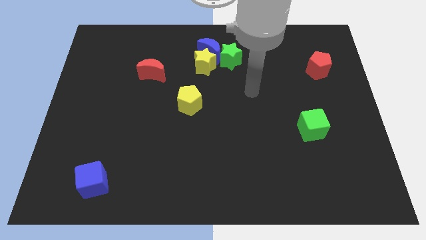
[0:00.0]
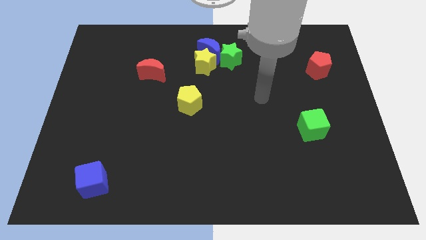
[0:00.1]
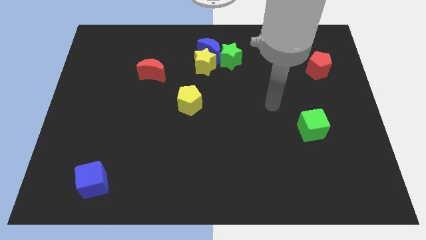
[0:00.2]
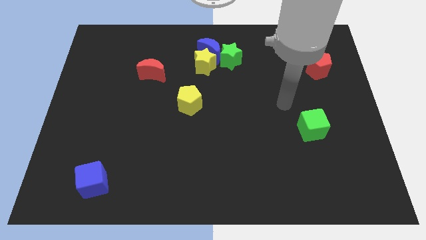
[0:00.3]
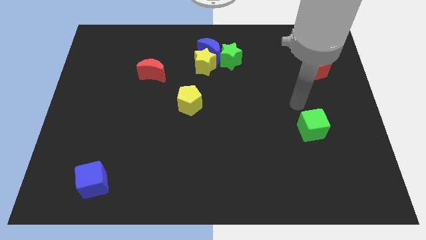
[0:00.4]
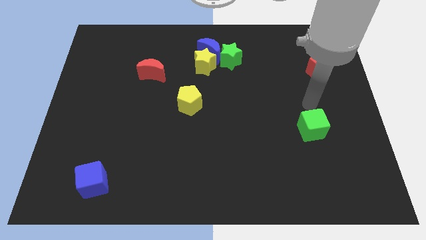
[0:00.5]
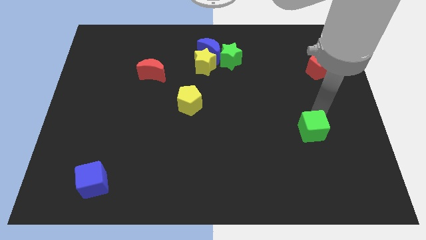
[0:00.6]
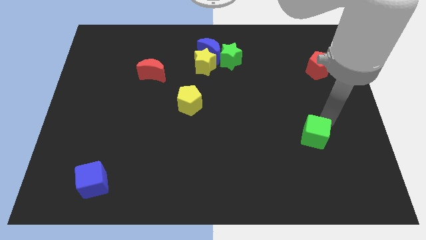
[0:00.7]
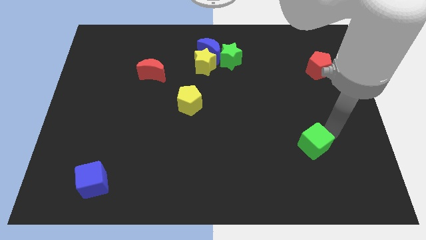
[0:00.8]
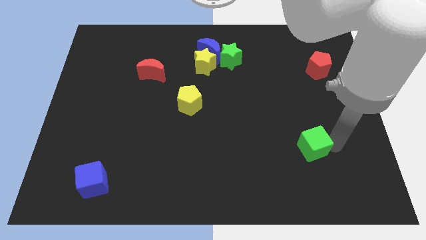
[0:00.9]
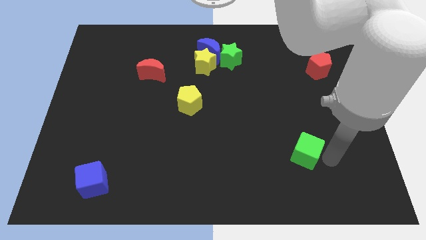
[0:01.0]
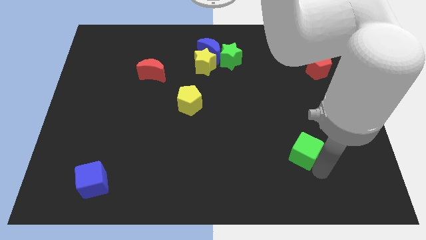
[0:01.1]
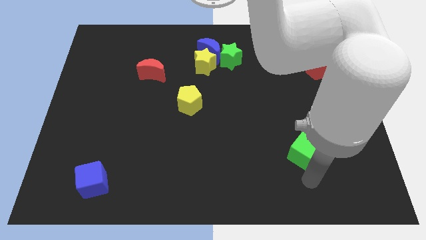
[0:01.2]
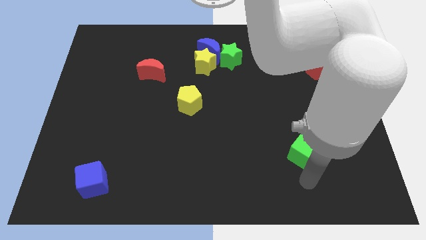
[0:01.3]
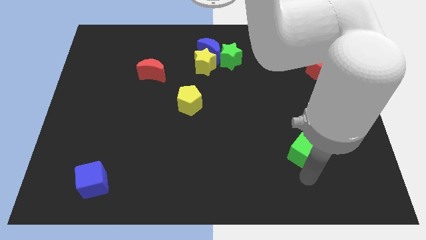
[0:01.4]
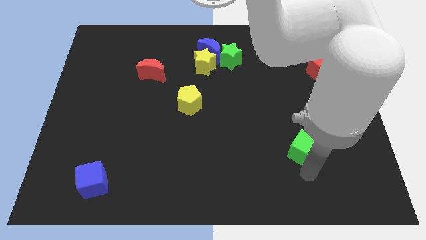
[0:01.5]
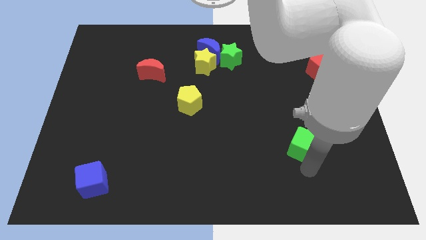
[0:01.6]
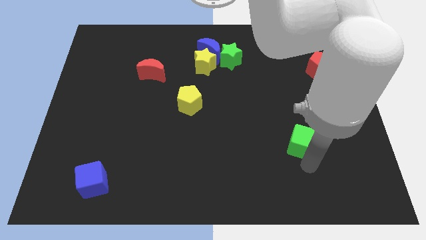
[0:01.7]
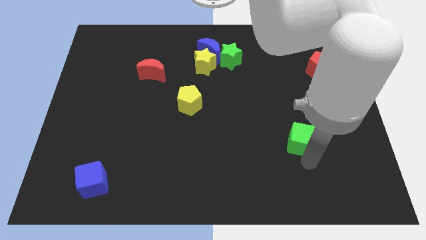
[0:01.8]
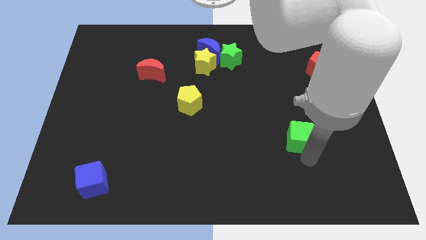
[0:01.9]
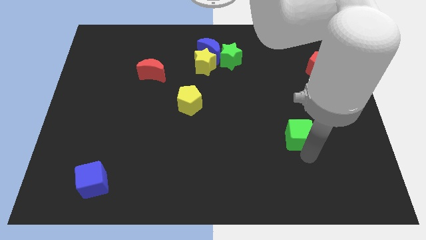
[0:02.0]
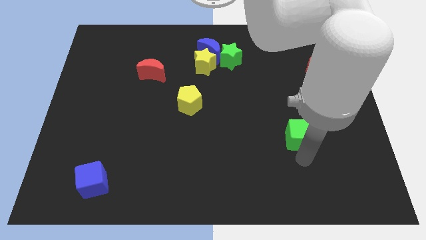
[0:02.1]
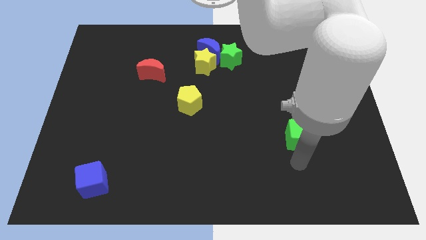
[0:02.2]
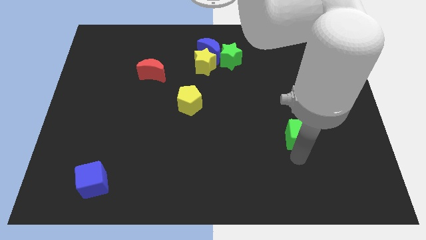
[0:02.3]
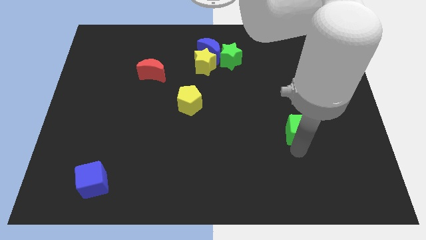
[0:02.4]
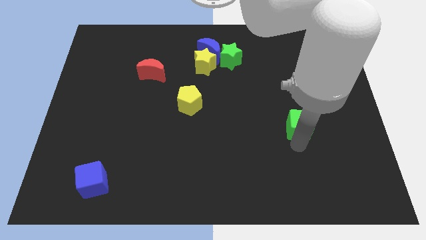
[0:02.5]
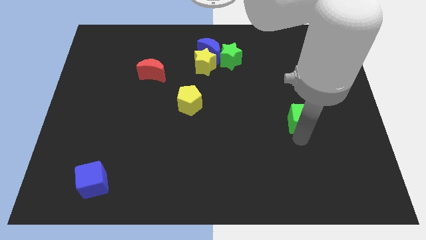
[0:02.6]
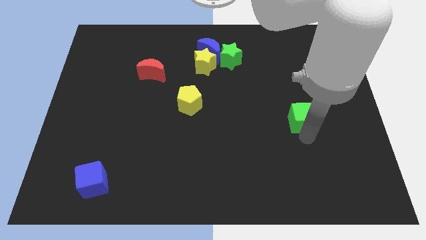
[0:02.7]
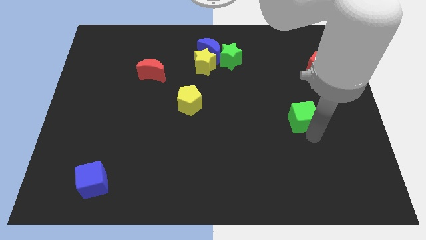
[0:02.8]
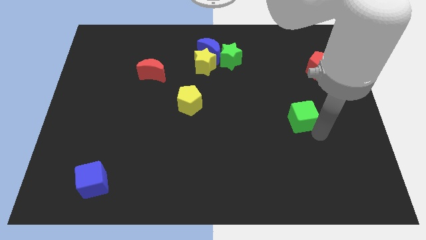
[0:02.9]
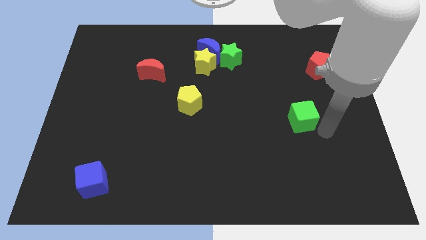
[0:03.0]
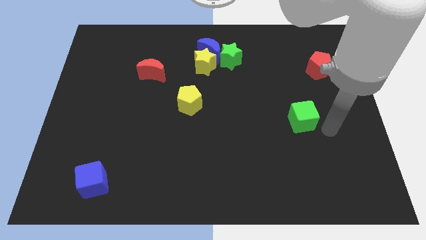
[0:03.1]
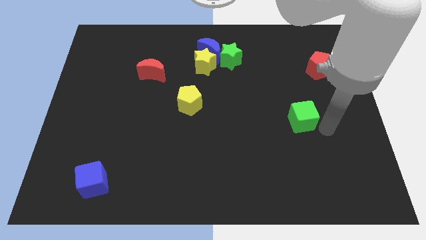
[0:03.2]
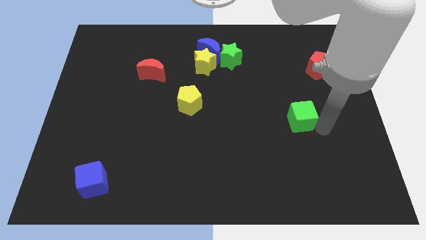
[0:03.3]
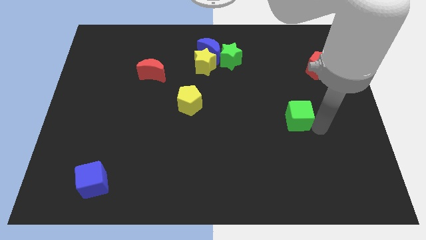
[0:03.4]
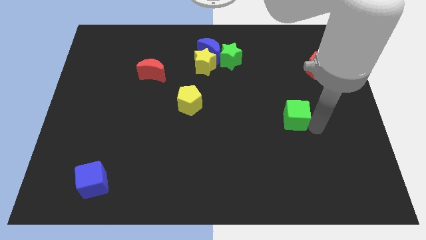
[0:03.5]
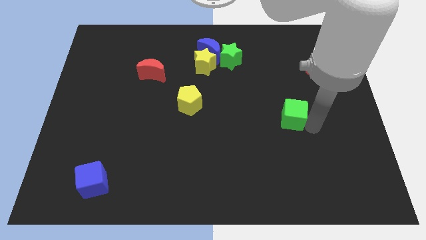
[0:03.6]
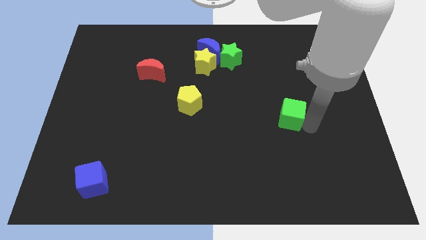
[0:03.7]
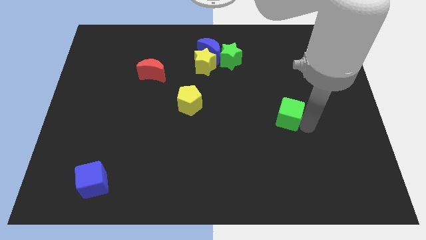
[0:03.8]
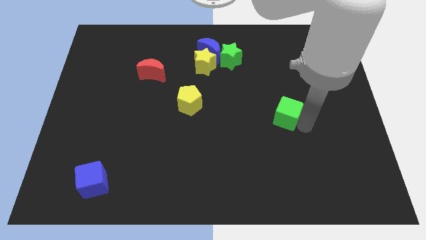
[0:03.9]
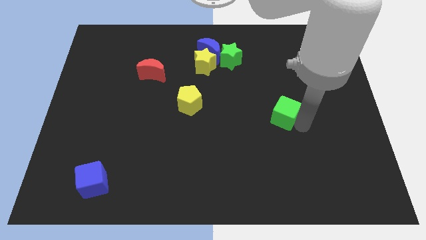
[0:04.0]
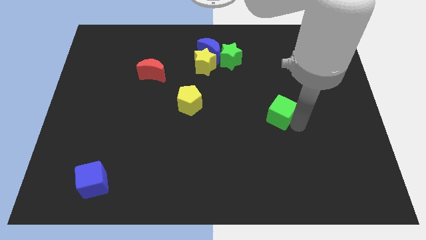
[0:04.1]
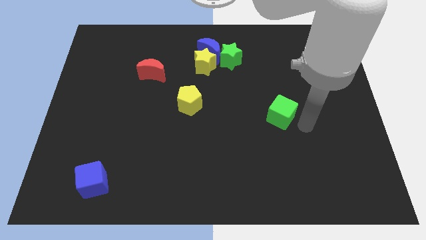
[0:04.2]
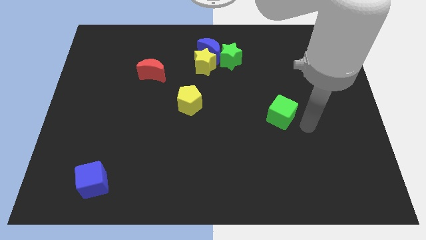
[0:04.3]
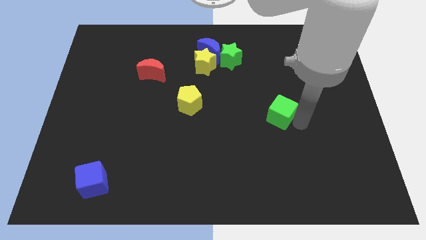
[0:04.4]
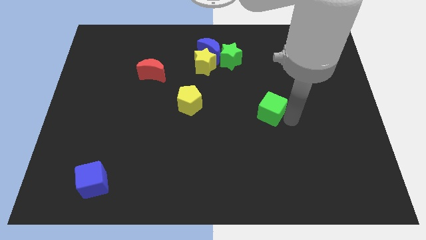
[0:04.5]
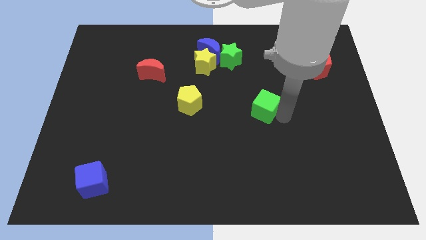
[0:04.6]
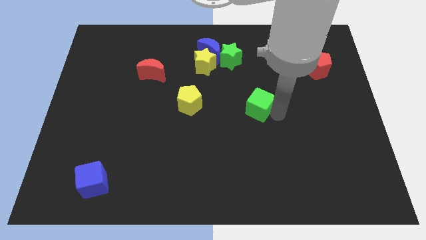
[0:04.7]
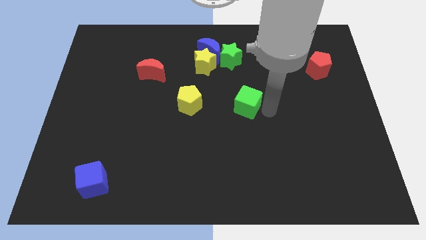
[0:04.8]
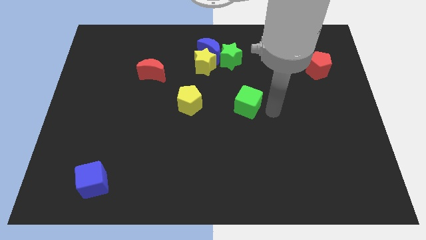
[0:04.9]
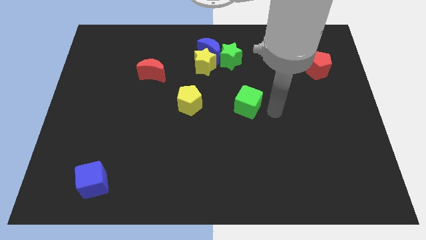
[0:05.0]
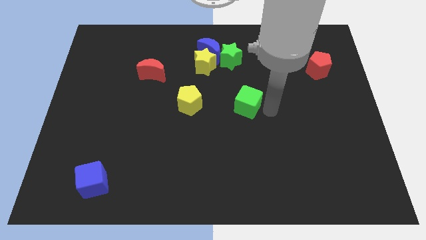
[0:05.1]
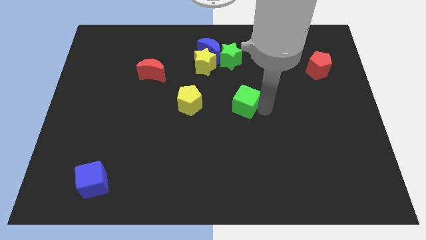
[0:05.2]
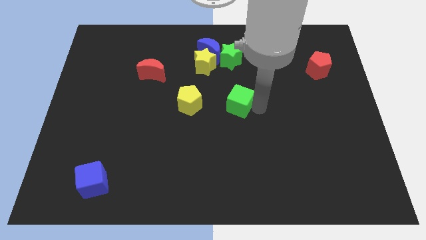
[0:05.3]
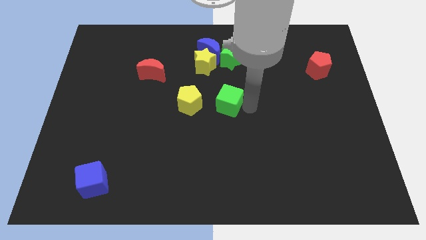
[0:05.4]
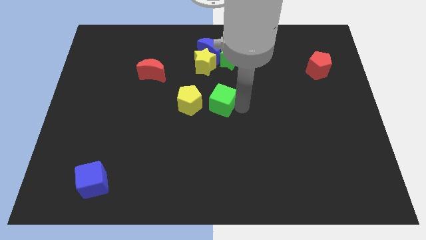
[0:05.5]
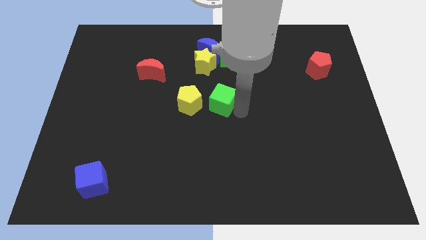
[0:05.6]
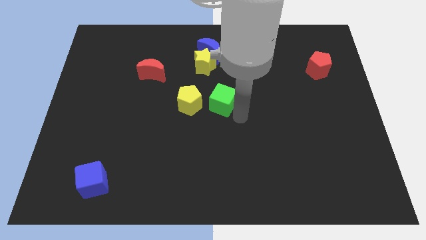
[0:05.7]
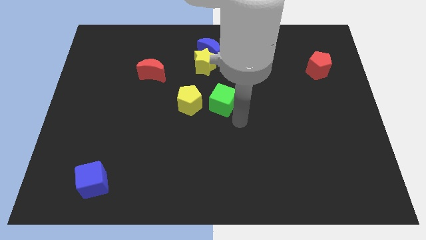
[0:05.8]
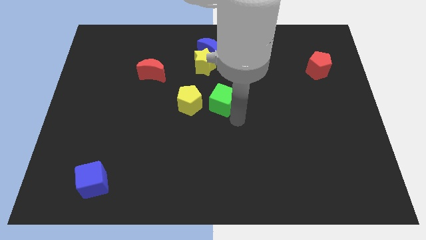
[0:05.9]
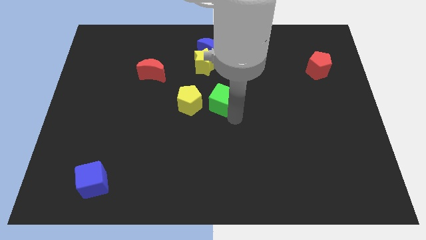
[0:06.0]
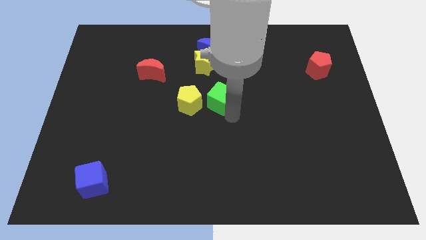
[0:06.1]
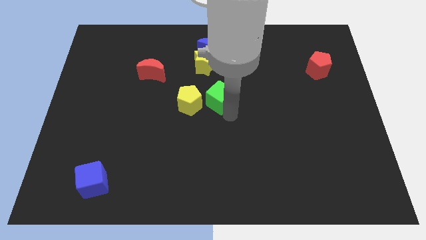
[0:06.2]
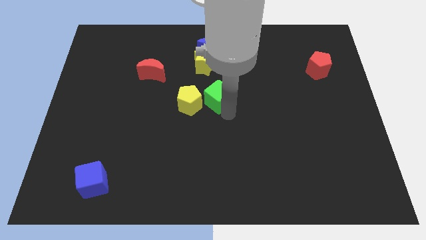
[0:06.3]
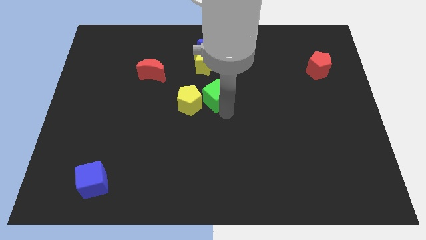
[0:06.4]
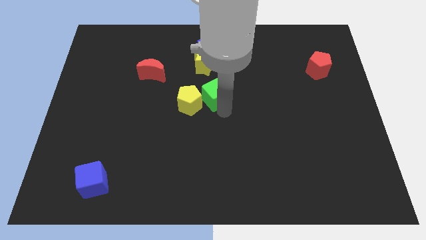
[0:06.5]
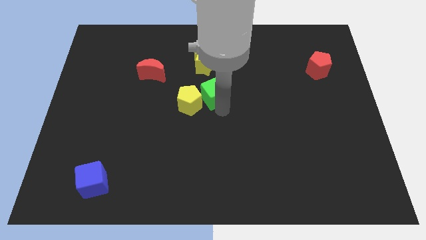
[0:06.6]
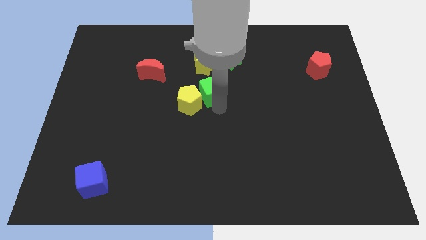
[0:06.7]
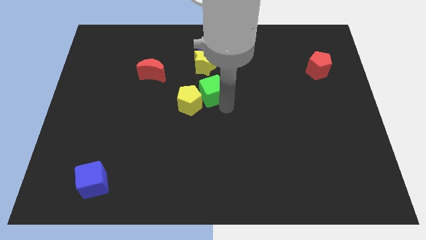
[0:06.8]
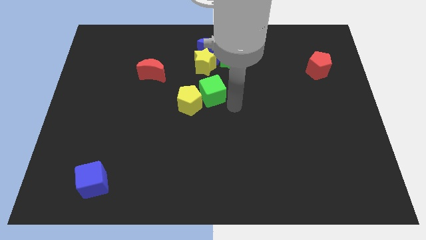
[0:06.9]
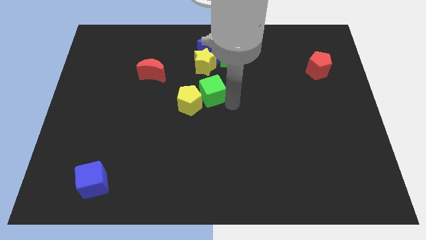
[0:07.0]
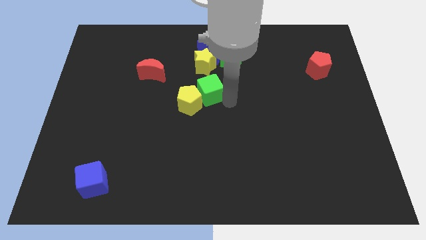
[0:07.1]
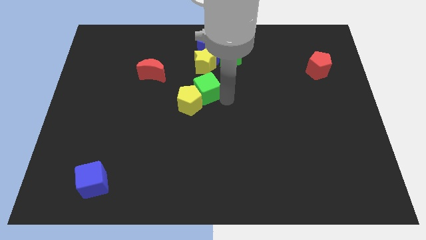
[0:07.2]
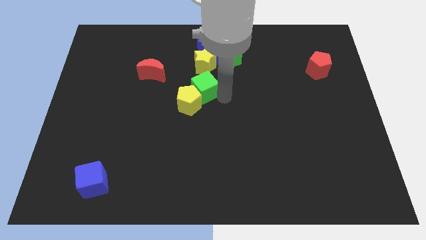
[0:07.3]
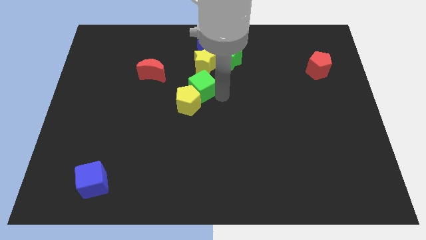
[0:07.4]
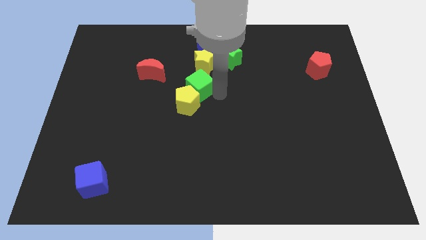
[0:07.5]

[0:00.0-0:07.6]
put the green cube to the bottom left of the yellow star
